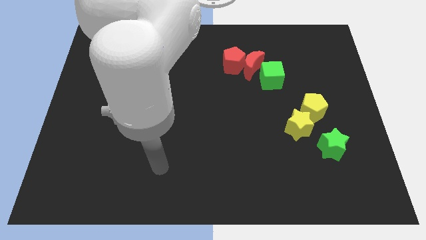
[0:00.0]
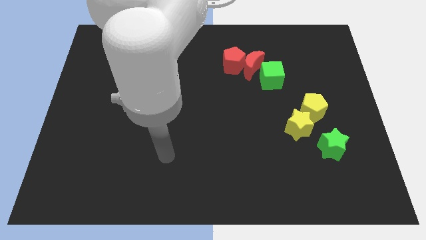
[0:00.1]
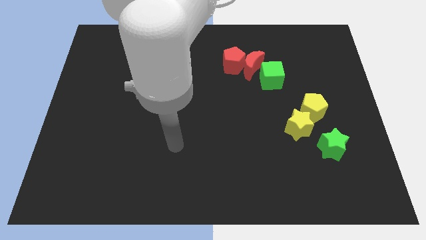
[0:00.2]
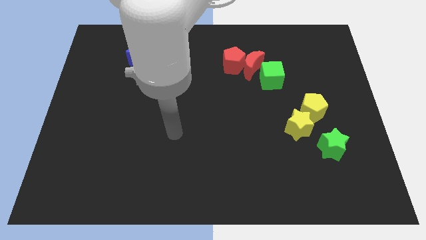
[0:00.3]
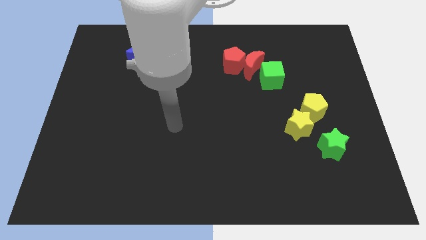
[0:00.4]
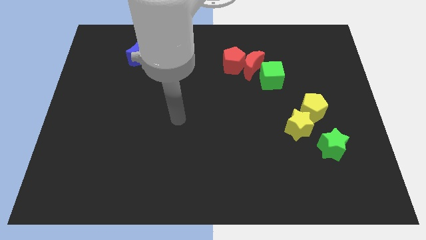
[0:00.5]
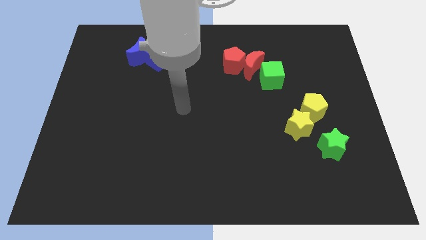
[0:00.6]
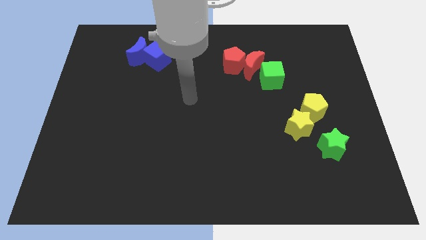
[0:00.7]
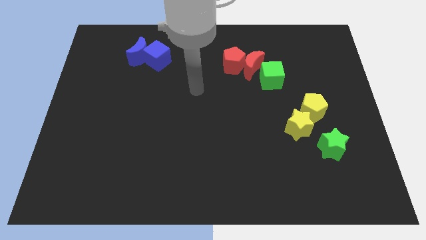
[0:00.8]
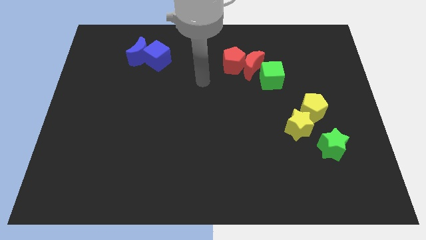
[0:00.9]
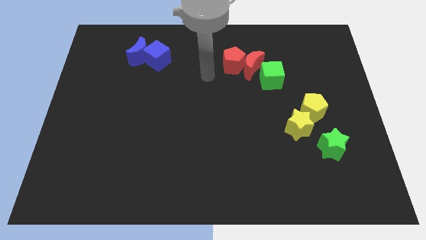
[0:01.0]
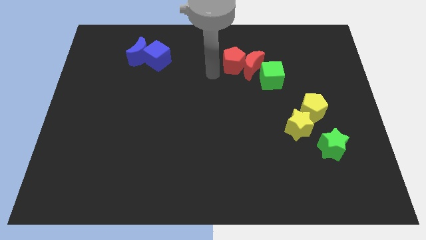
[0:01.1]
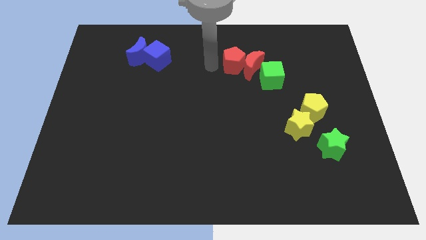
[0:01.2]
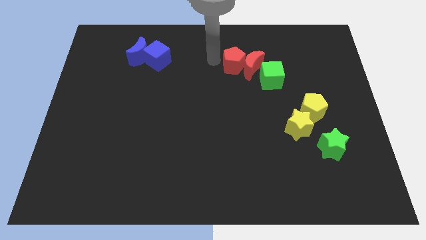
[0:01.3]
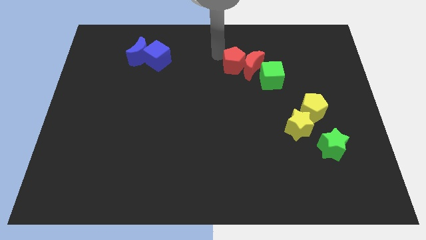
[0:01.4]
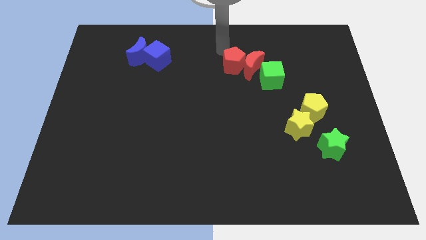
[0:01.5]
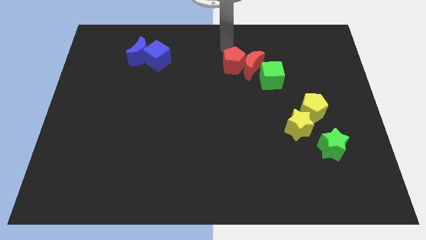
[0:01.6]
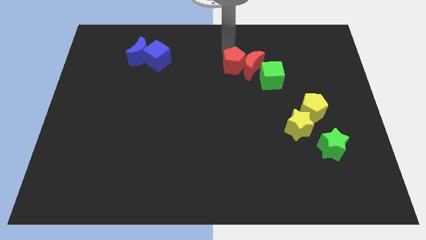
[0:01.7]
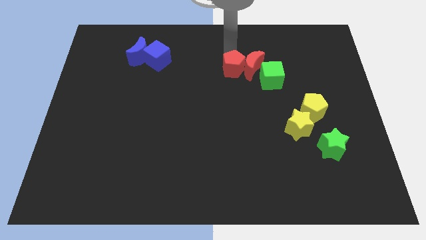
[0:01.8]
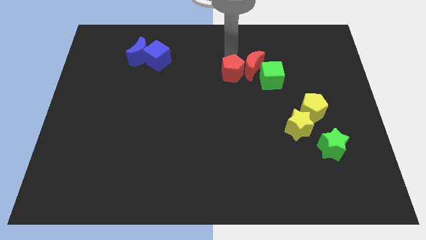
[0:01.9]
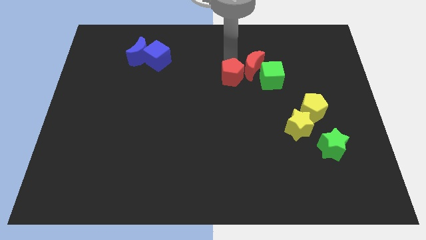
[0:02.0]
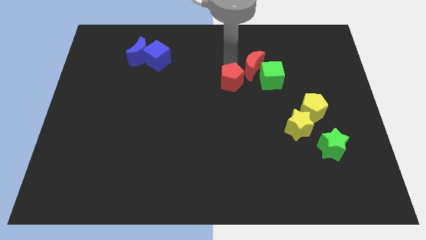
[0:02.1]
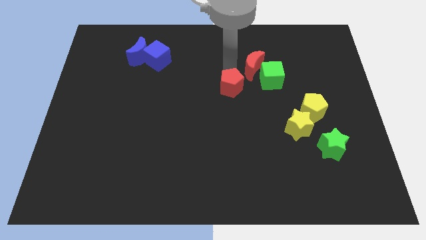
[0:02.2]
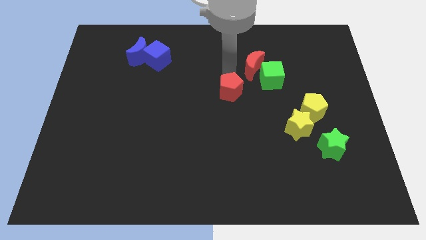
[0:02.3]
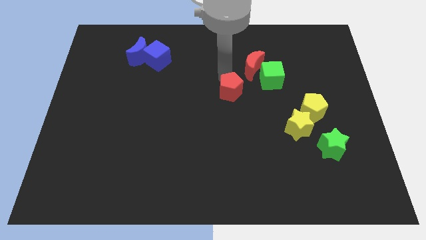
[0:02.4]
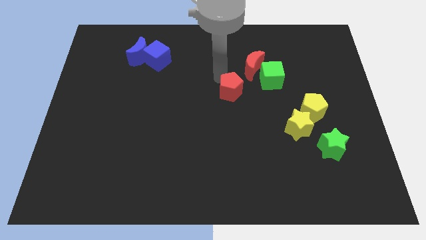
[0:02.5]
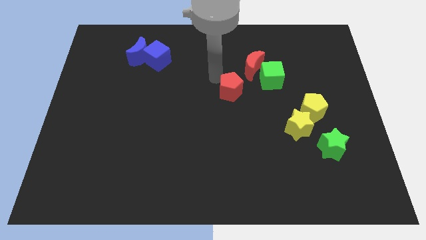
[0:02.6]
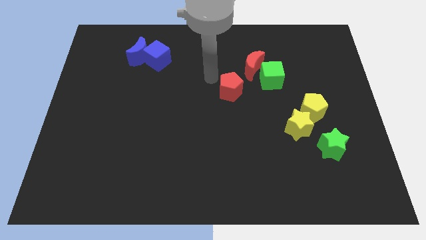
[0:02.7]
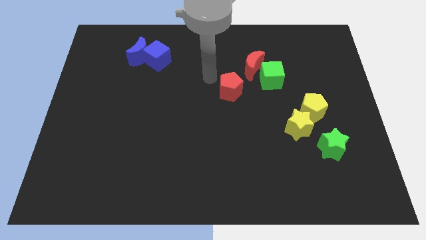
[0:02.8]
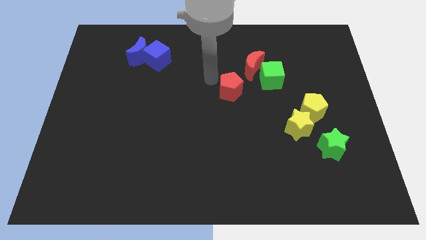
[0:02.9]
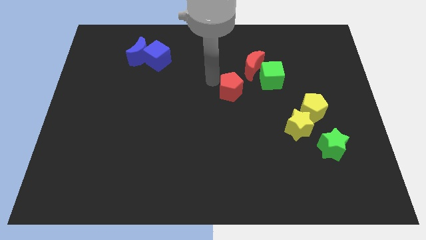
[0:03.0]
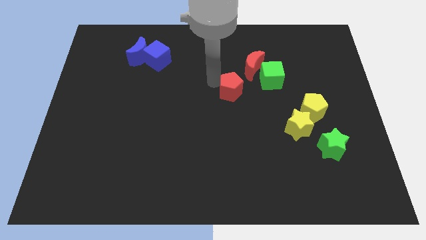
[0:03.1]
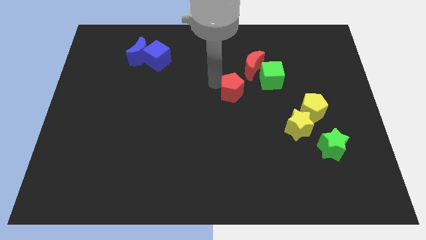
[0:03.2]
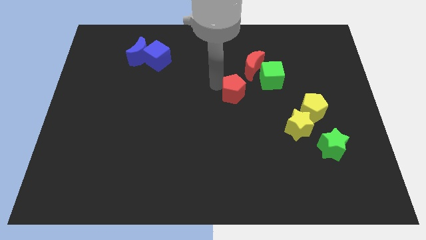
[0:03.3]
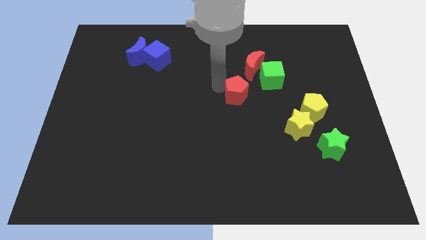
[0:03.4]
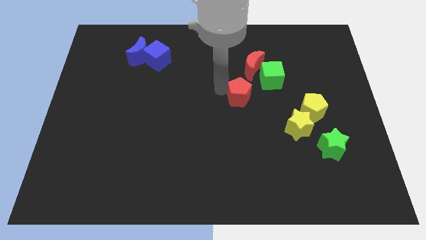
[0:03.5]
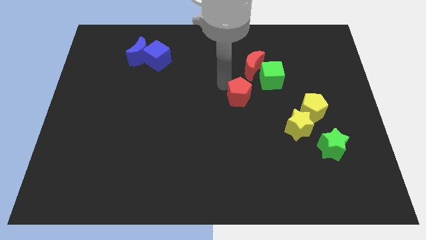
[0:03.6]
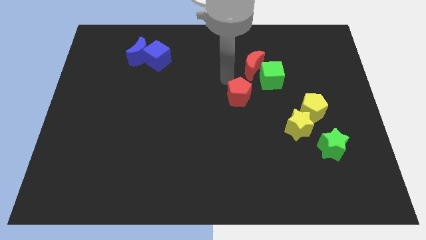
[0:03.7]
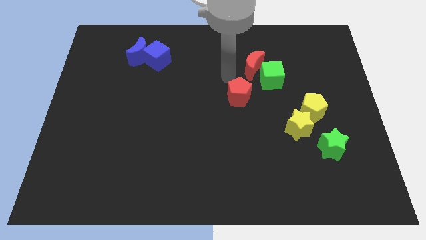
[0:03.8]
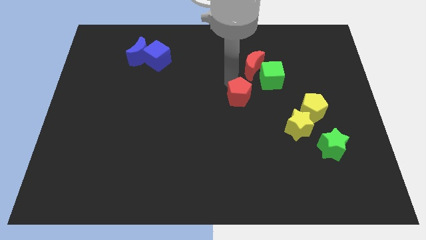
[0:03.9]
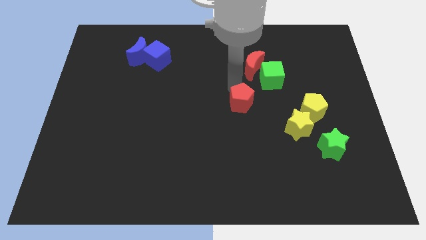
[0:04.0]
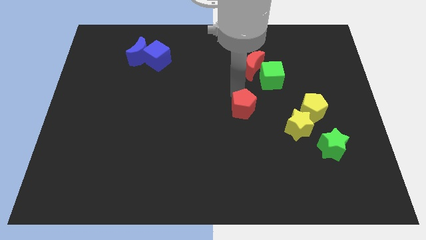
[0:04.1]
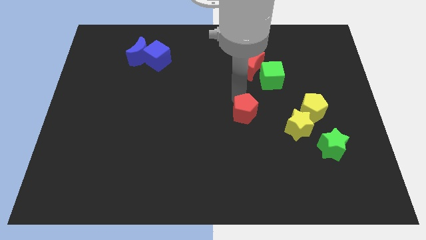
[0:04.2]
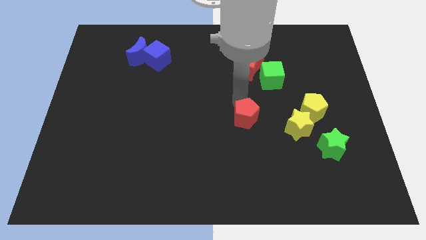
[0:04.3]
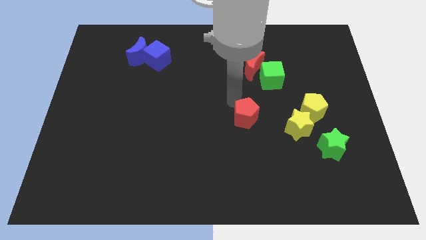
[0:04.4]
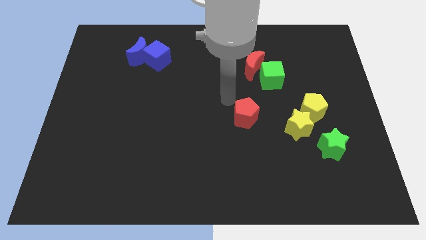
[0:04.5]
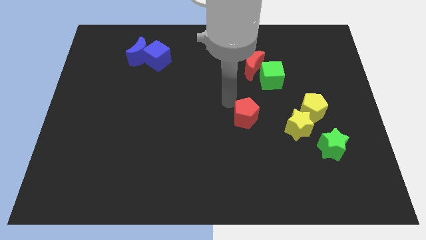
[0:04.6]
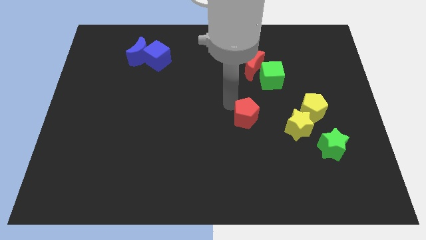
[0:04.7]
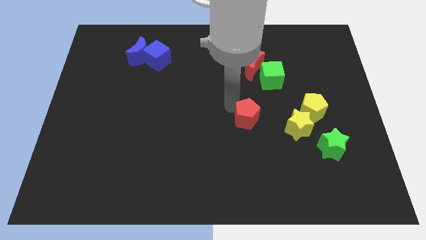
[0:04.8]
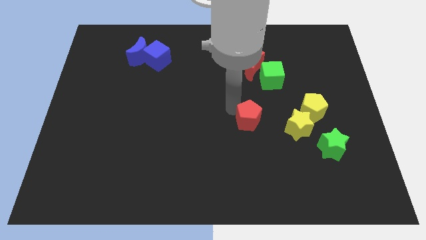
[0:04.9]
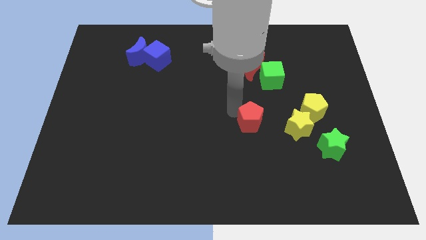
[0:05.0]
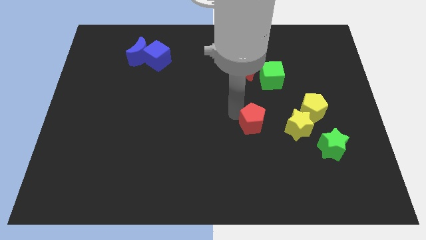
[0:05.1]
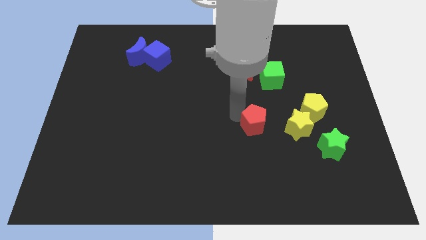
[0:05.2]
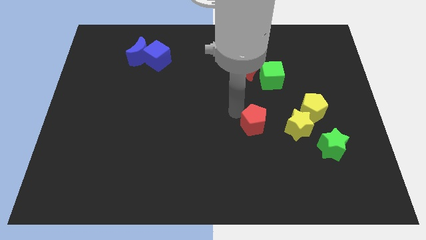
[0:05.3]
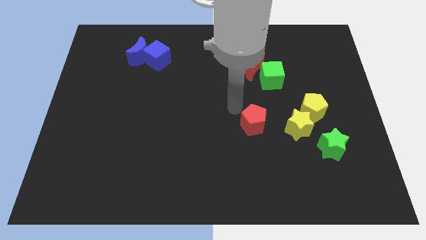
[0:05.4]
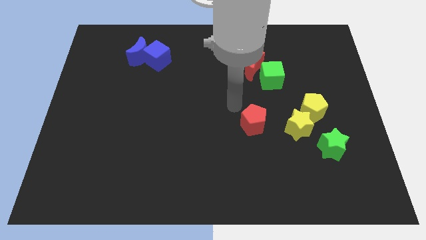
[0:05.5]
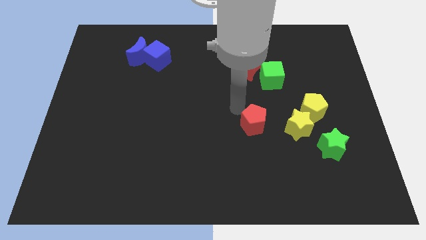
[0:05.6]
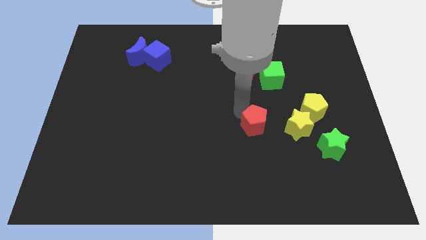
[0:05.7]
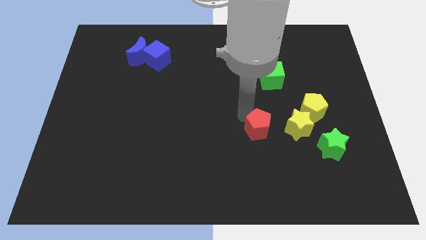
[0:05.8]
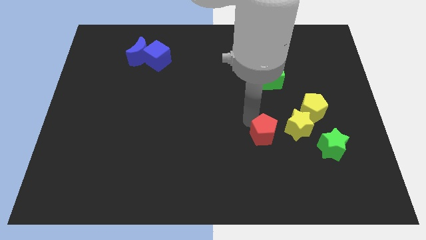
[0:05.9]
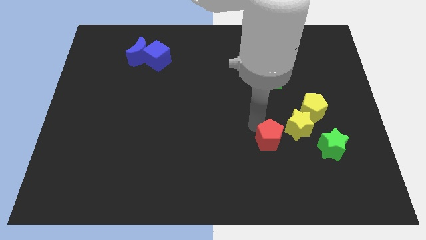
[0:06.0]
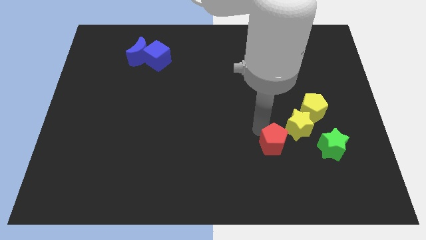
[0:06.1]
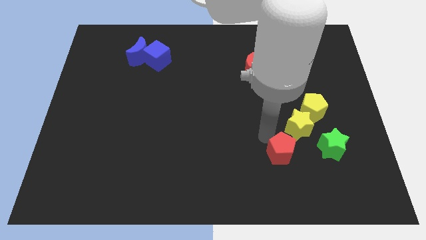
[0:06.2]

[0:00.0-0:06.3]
slide the red pentagon to the bottom of the yellow star

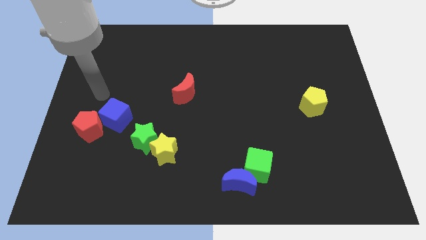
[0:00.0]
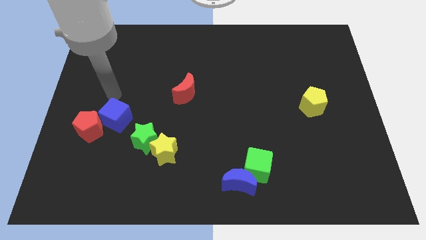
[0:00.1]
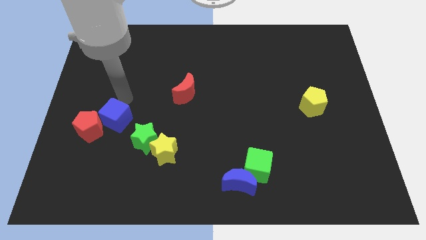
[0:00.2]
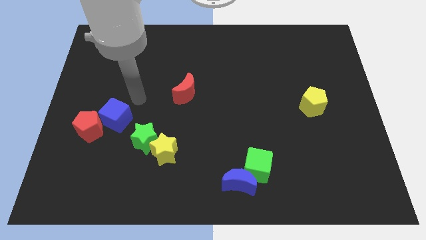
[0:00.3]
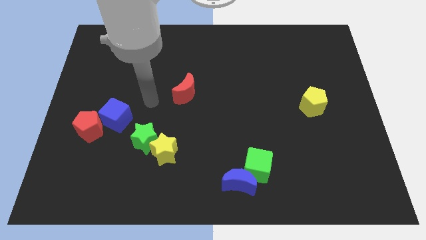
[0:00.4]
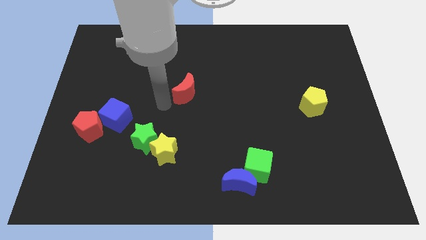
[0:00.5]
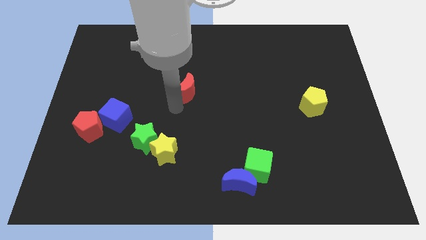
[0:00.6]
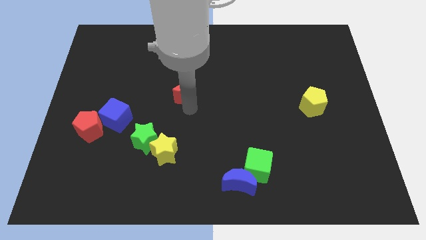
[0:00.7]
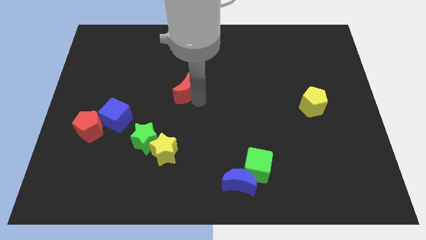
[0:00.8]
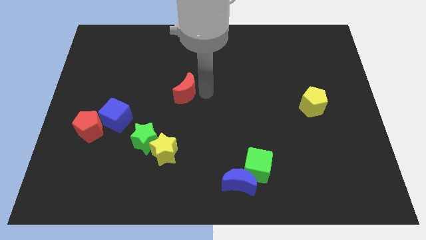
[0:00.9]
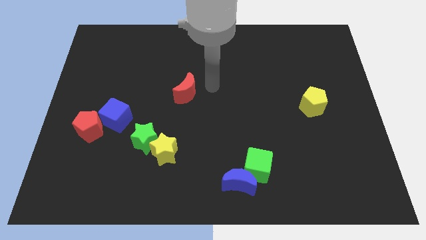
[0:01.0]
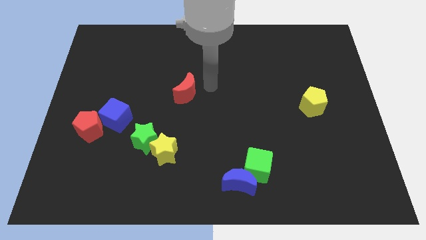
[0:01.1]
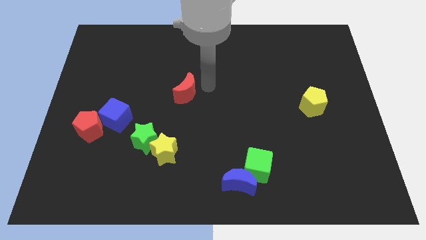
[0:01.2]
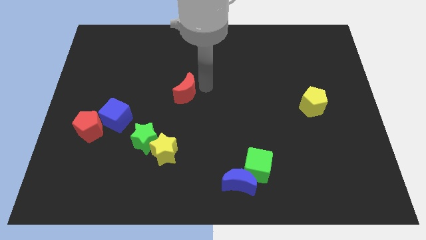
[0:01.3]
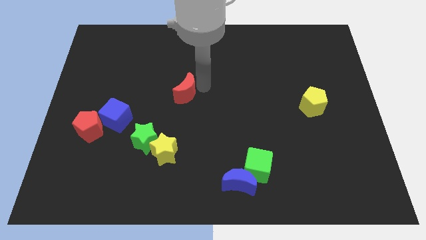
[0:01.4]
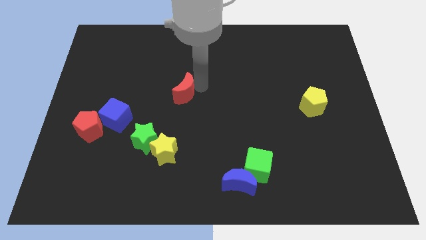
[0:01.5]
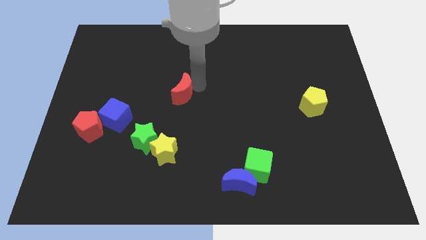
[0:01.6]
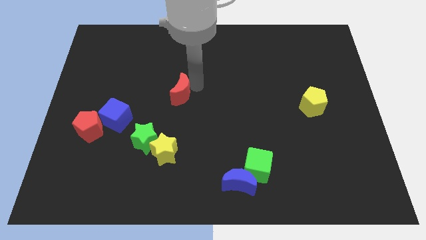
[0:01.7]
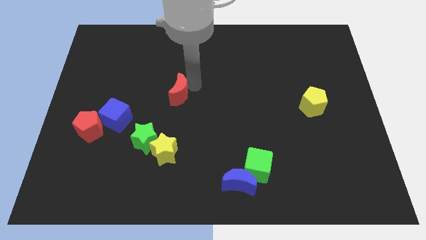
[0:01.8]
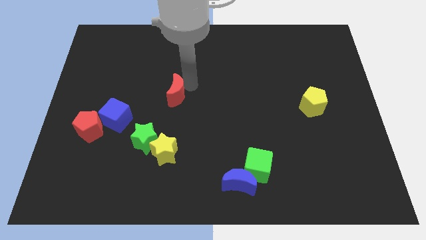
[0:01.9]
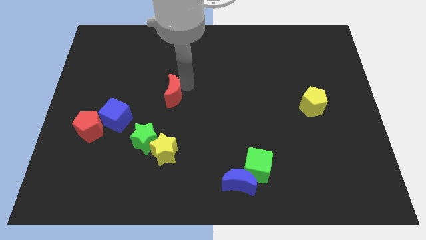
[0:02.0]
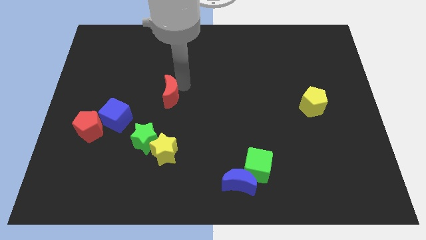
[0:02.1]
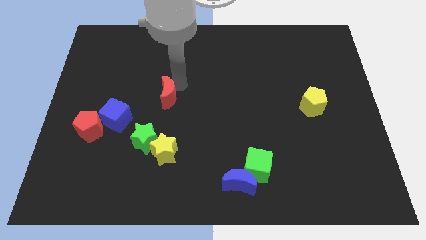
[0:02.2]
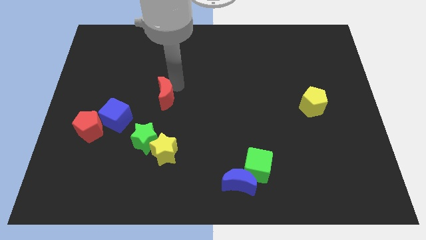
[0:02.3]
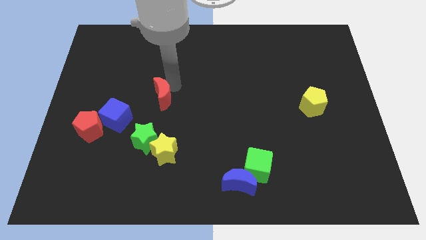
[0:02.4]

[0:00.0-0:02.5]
put the red moon diagonally up and to the right of the blue cube
